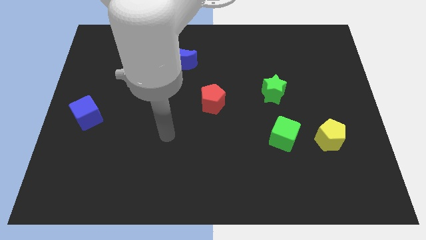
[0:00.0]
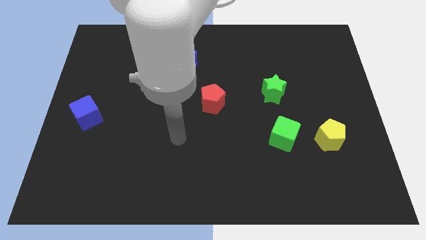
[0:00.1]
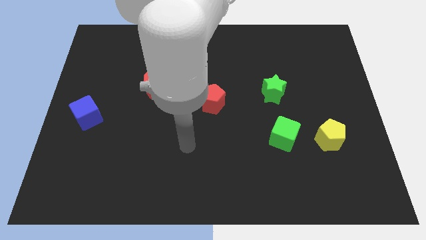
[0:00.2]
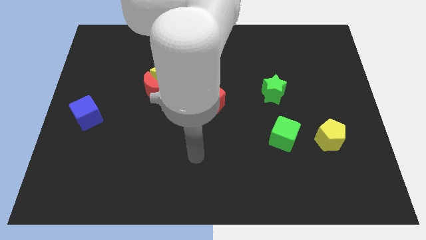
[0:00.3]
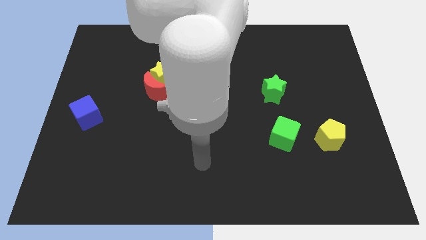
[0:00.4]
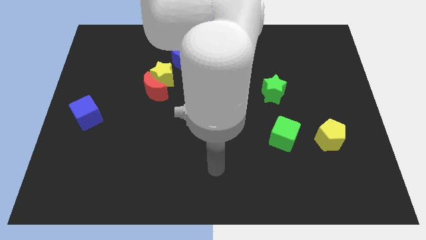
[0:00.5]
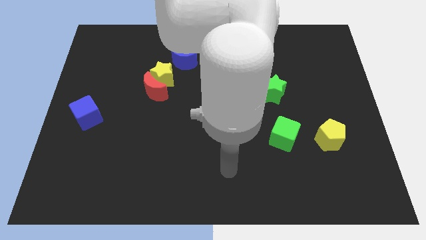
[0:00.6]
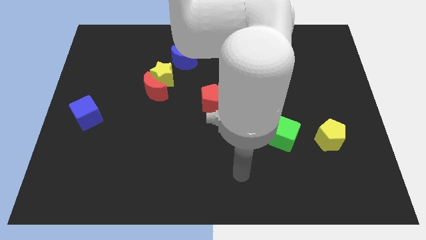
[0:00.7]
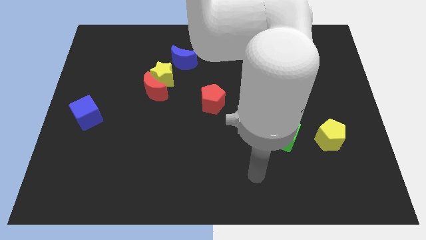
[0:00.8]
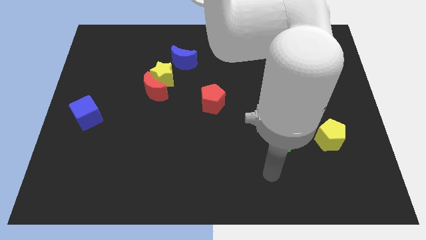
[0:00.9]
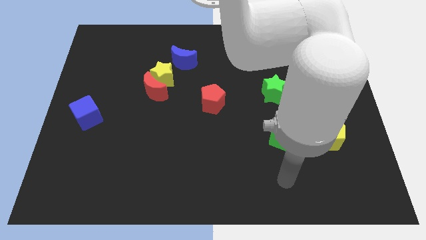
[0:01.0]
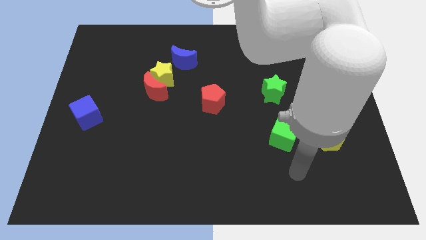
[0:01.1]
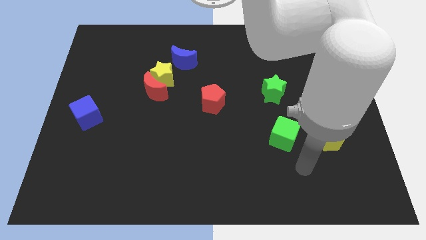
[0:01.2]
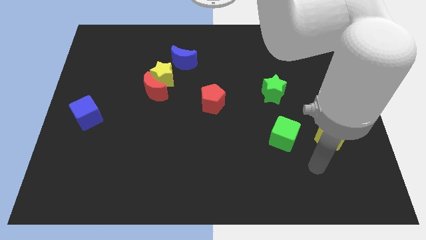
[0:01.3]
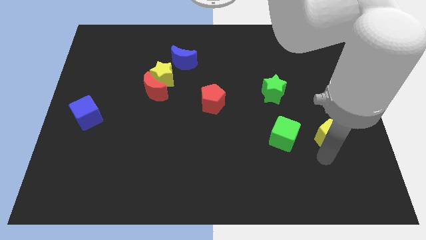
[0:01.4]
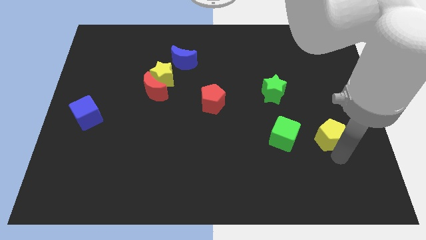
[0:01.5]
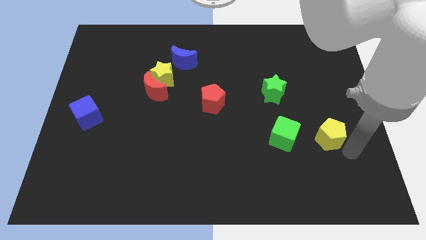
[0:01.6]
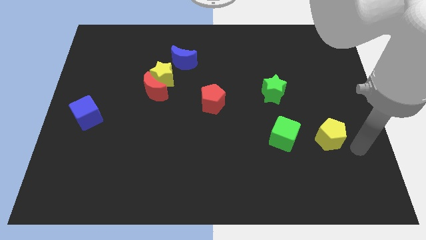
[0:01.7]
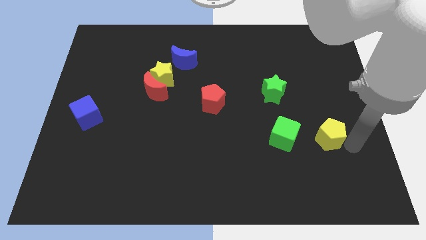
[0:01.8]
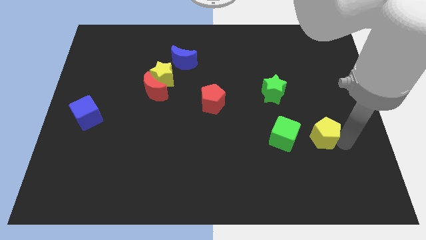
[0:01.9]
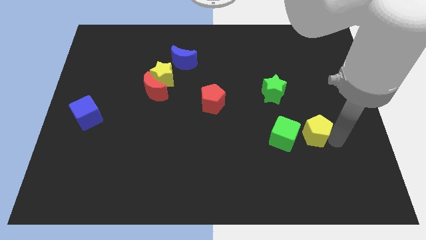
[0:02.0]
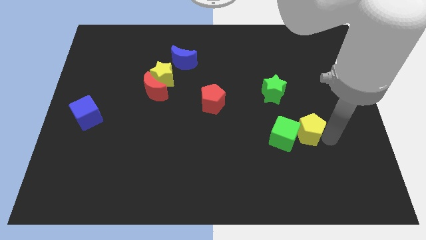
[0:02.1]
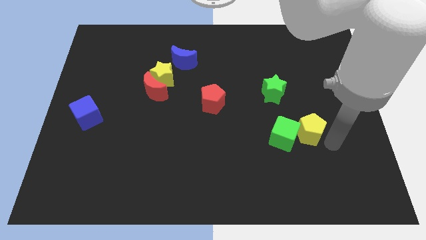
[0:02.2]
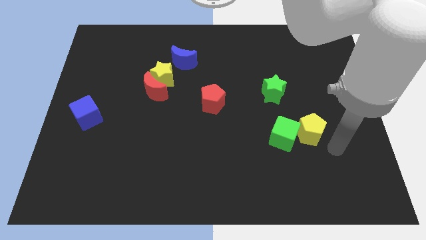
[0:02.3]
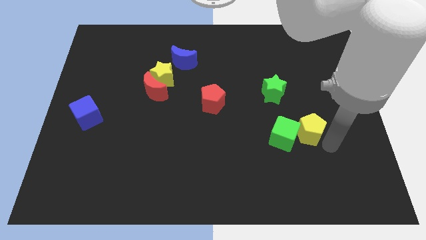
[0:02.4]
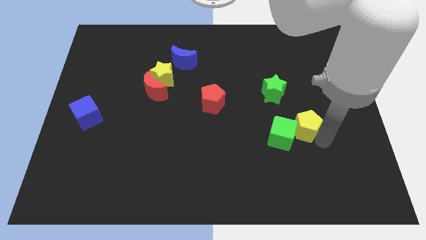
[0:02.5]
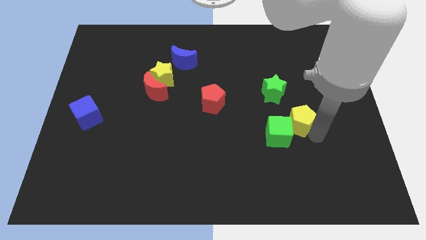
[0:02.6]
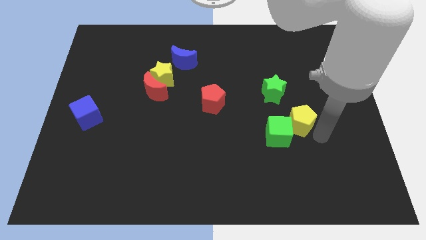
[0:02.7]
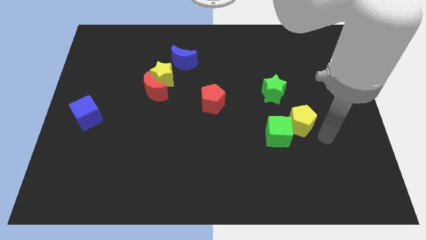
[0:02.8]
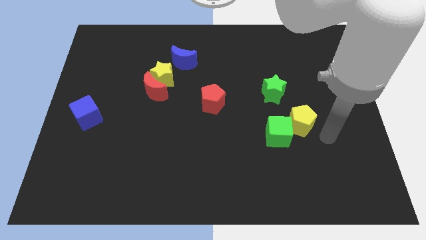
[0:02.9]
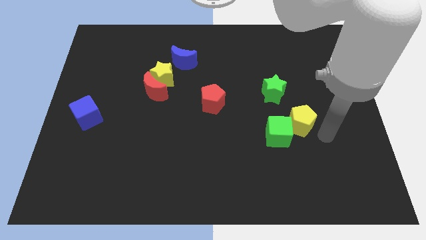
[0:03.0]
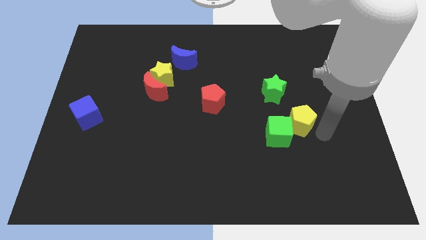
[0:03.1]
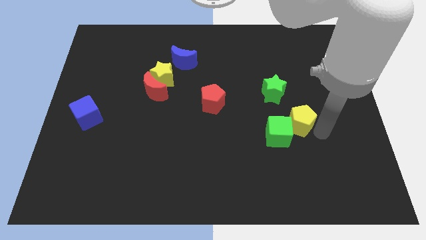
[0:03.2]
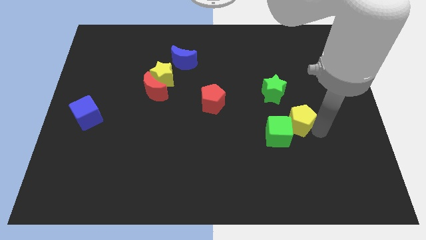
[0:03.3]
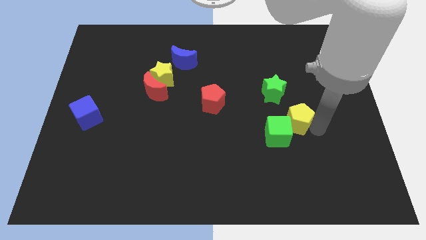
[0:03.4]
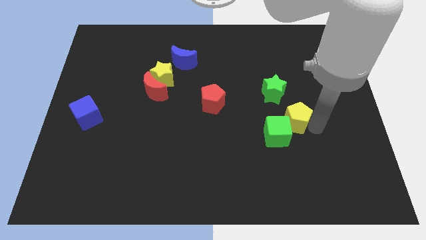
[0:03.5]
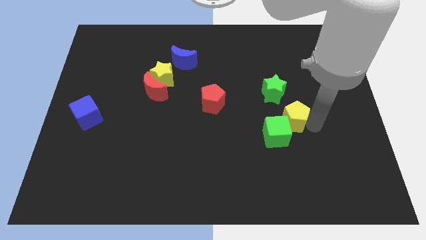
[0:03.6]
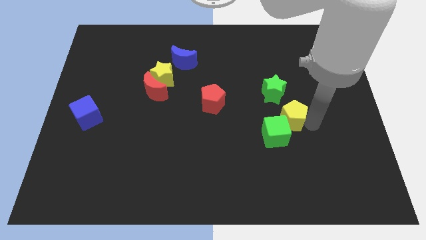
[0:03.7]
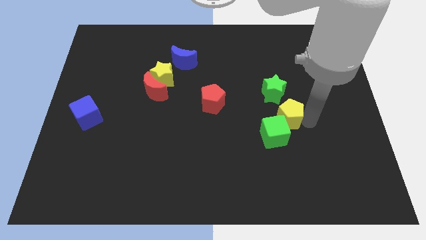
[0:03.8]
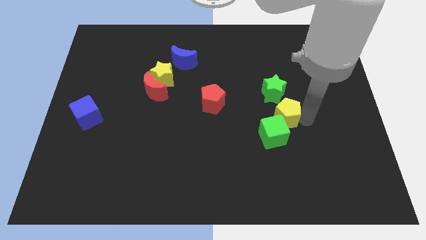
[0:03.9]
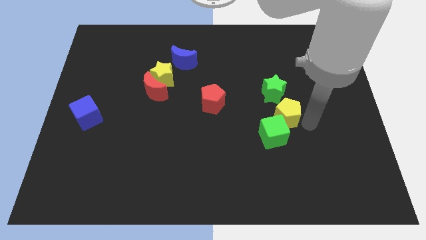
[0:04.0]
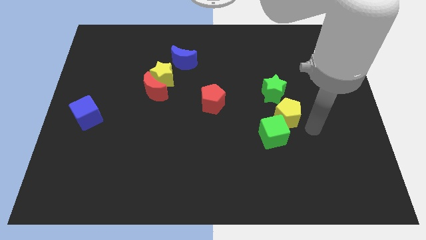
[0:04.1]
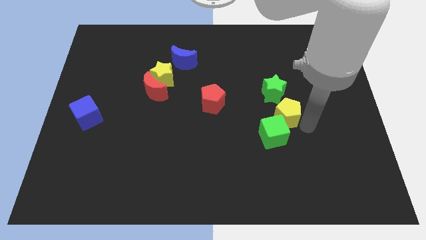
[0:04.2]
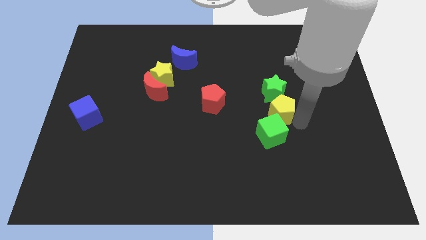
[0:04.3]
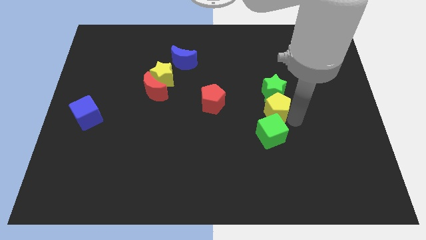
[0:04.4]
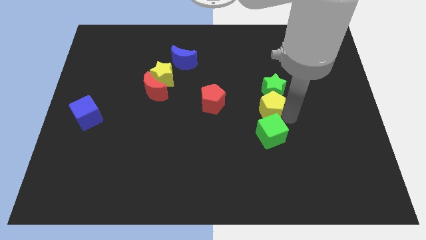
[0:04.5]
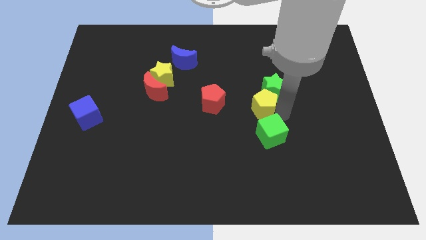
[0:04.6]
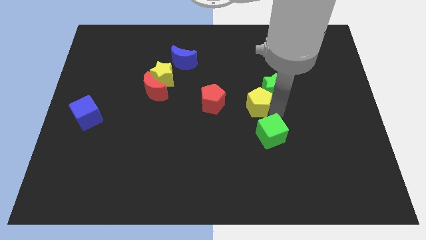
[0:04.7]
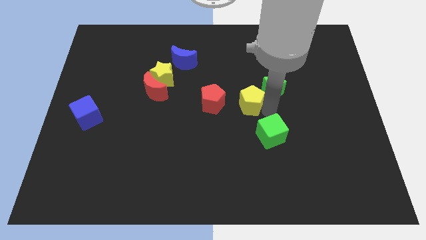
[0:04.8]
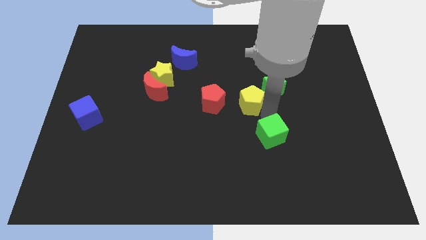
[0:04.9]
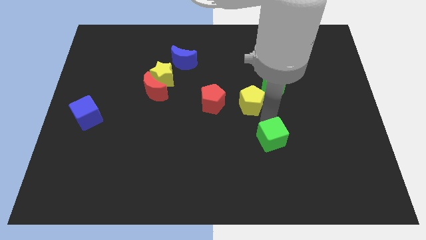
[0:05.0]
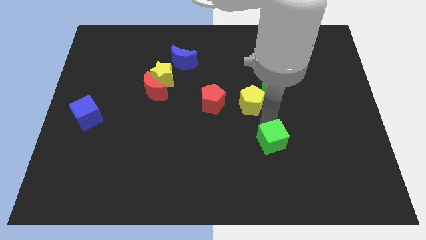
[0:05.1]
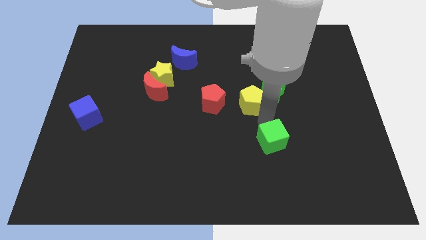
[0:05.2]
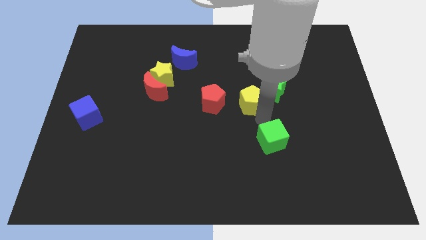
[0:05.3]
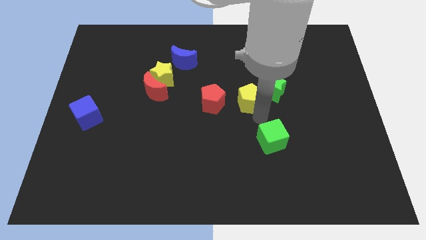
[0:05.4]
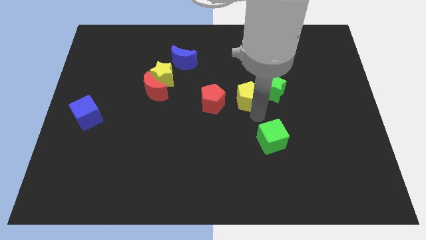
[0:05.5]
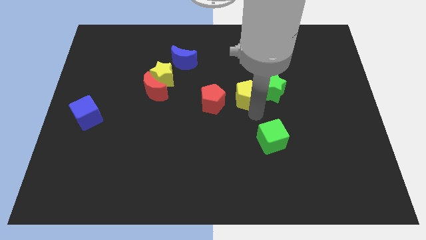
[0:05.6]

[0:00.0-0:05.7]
slide the yellow pentagon upwards and then left

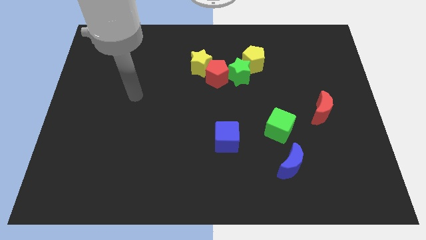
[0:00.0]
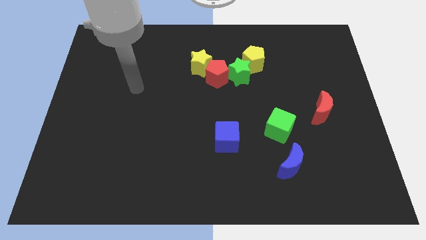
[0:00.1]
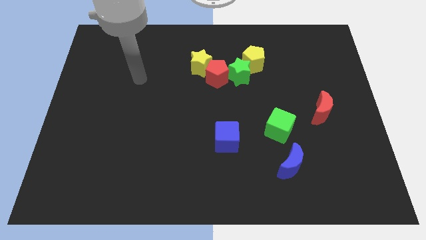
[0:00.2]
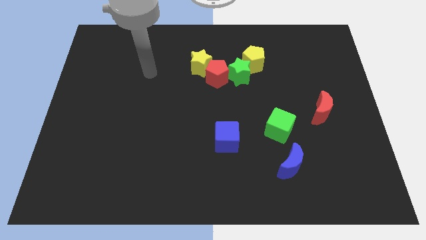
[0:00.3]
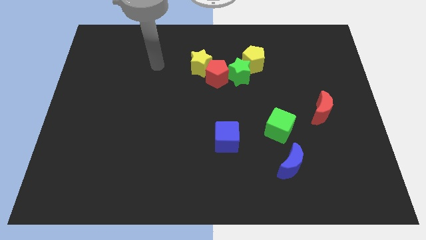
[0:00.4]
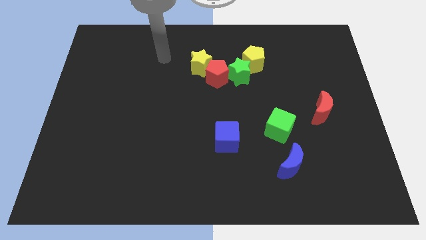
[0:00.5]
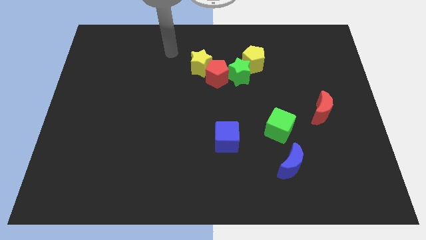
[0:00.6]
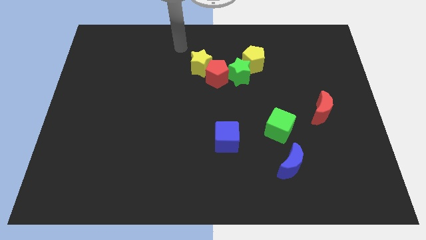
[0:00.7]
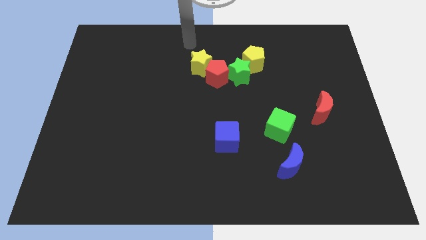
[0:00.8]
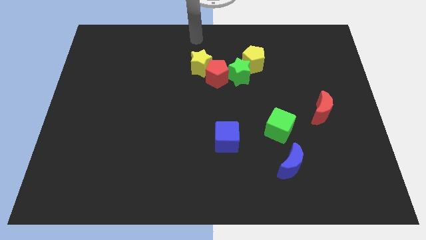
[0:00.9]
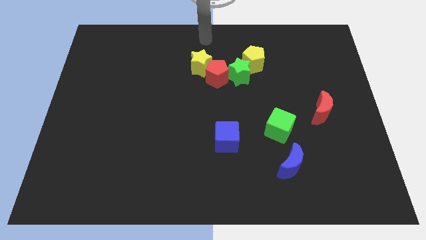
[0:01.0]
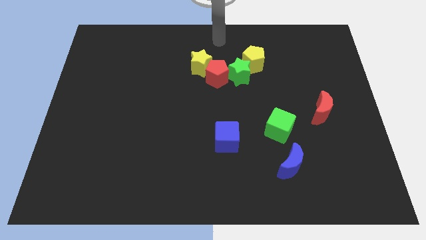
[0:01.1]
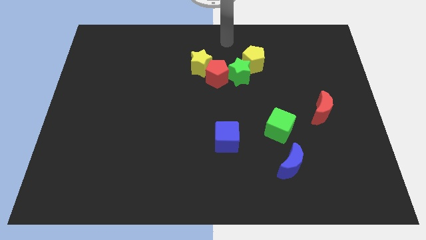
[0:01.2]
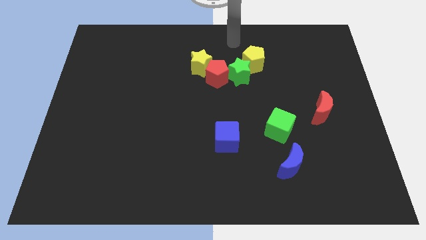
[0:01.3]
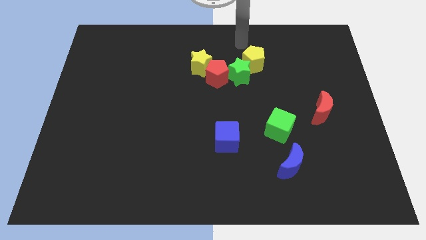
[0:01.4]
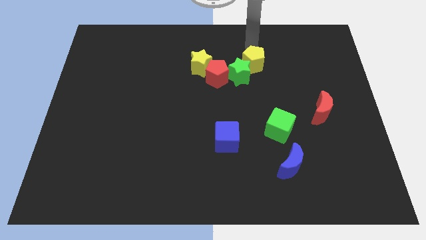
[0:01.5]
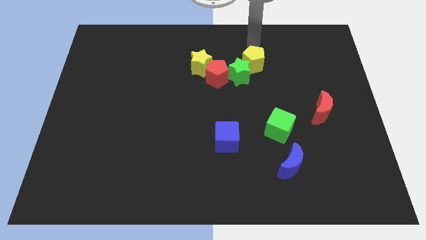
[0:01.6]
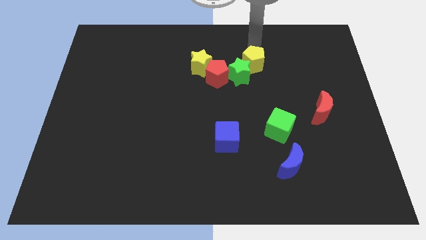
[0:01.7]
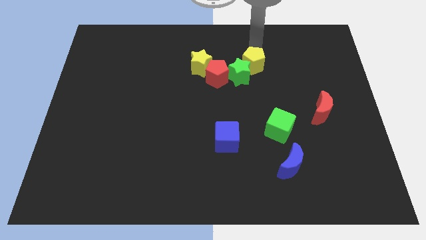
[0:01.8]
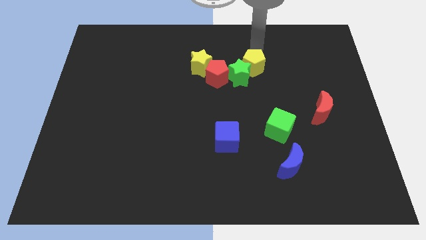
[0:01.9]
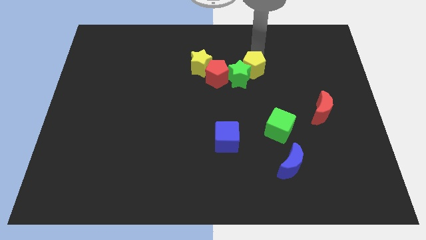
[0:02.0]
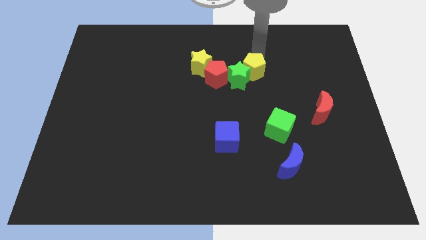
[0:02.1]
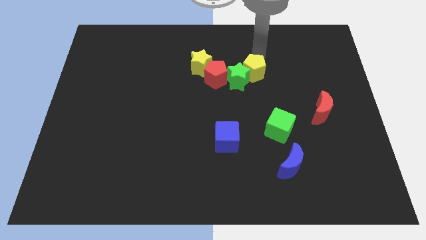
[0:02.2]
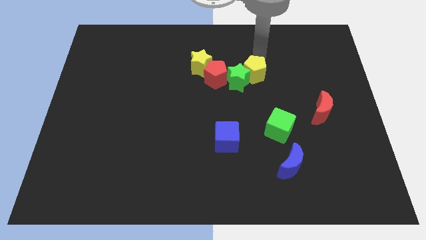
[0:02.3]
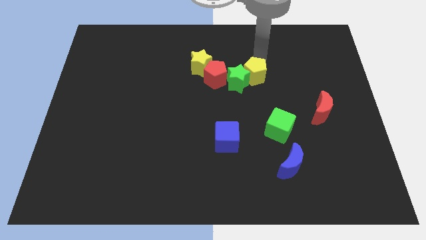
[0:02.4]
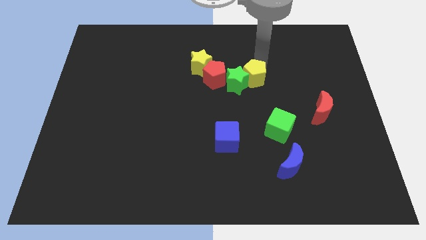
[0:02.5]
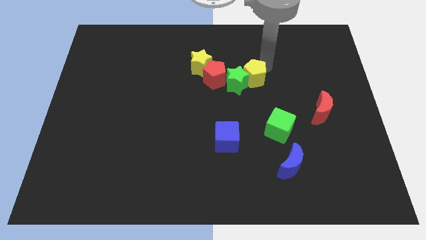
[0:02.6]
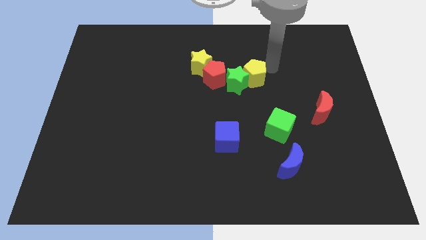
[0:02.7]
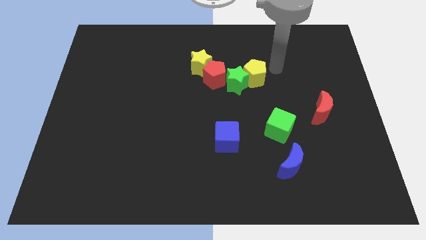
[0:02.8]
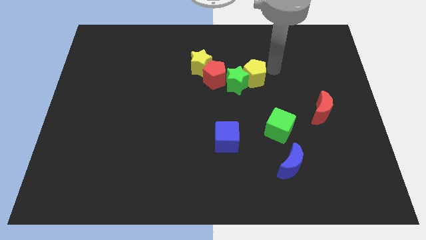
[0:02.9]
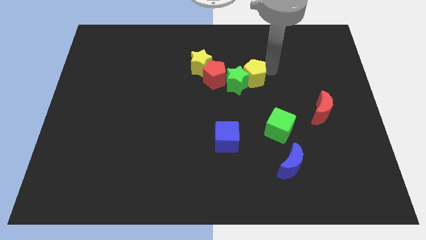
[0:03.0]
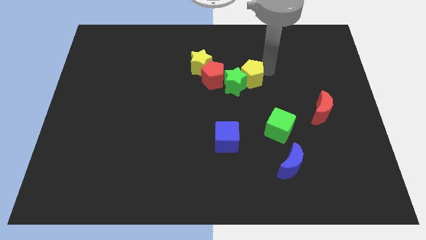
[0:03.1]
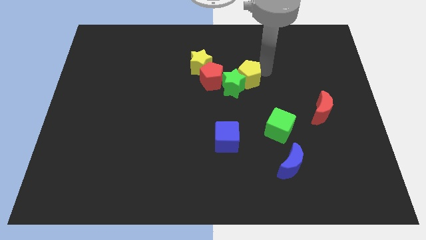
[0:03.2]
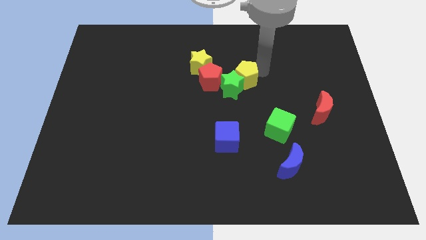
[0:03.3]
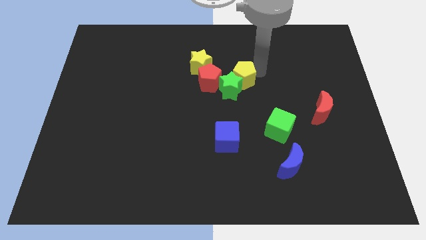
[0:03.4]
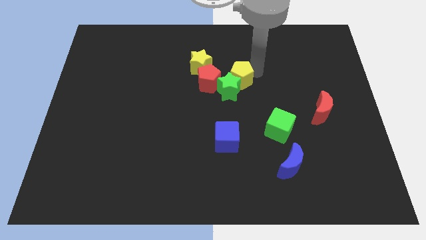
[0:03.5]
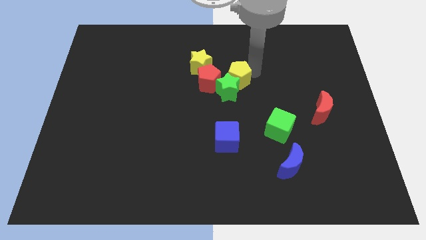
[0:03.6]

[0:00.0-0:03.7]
slide the yellow pentagon a little bit down and then to the left
